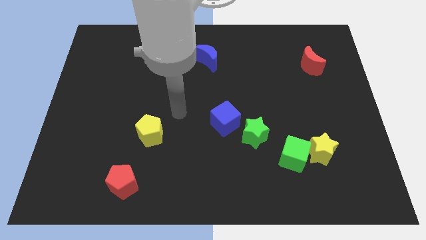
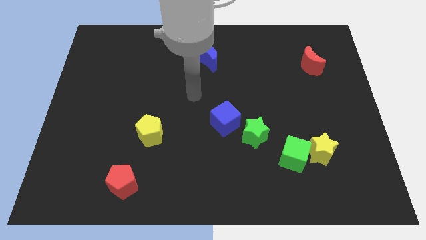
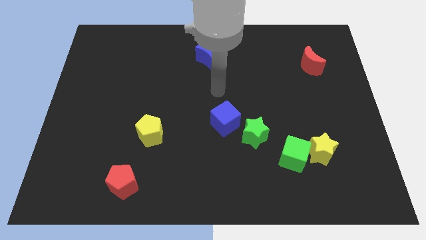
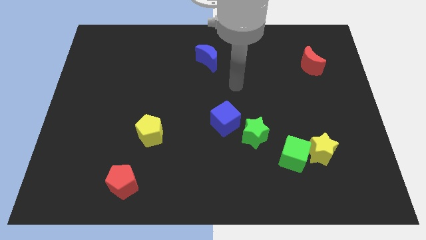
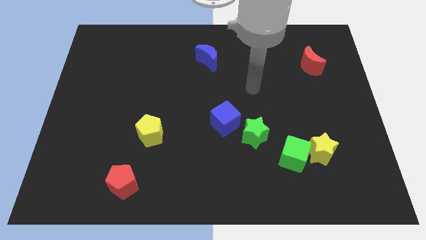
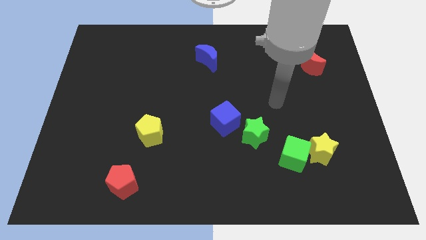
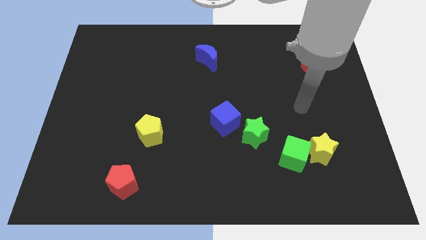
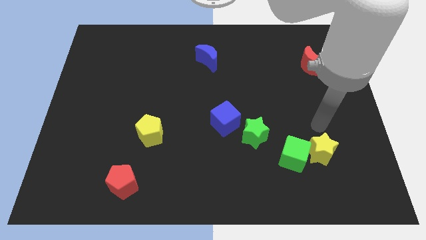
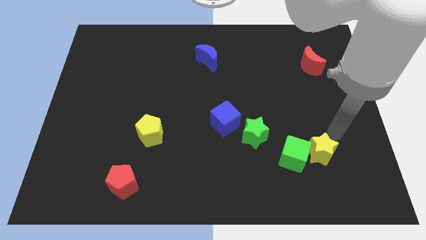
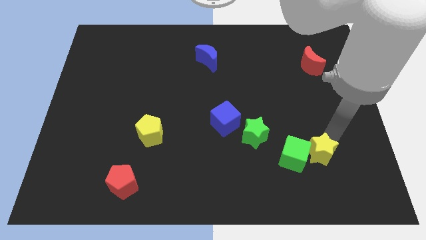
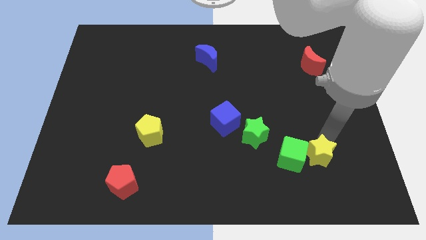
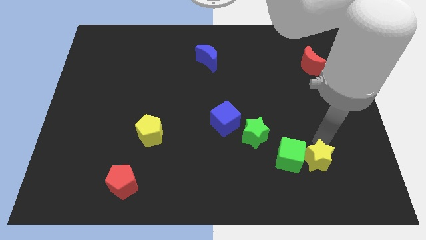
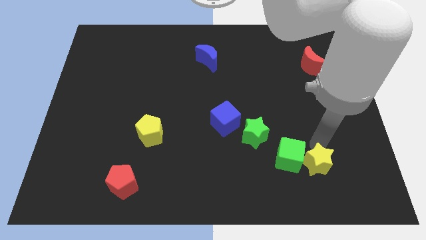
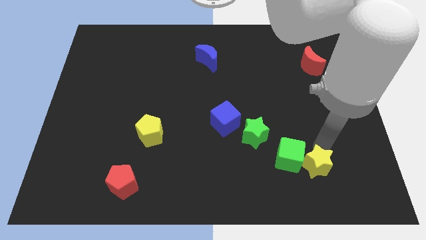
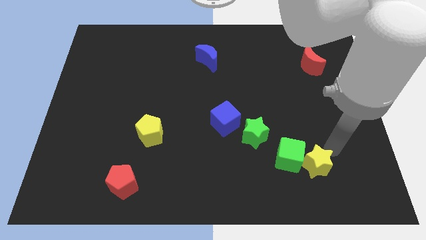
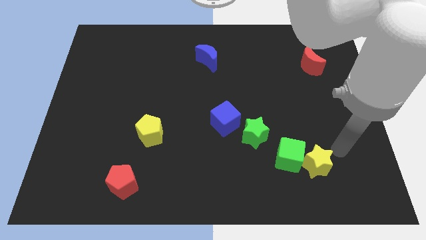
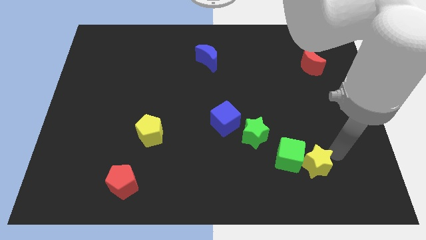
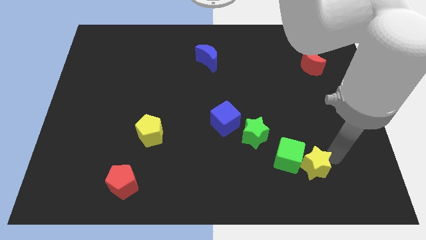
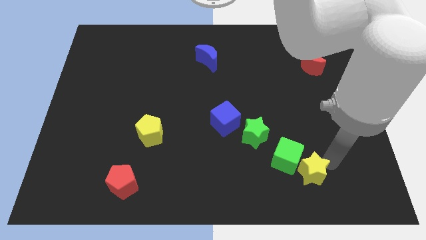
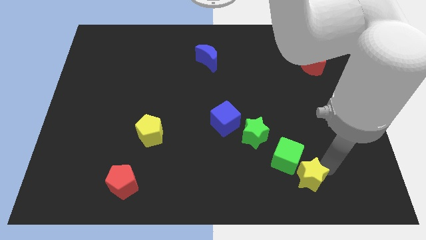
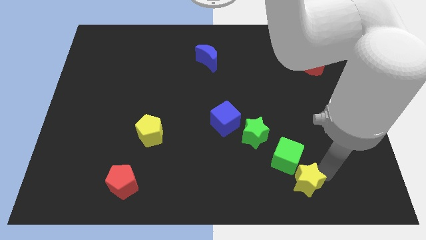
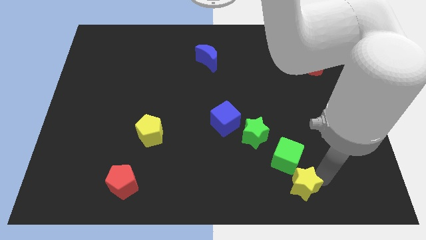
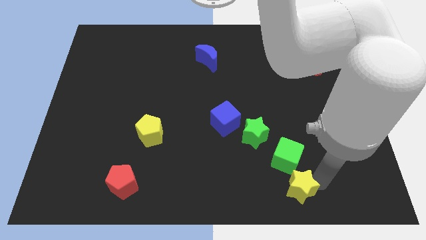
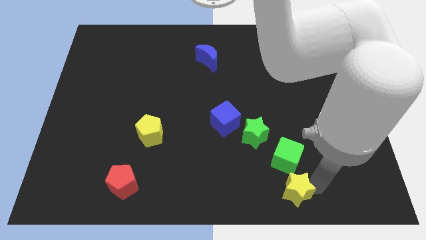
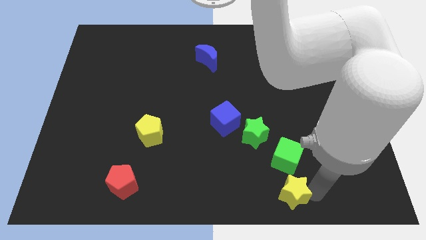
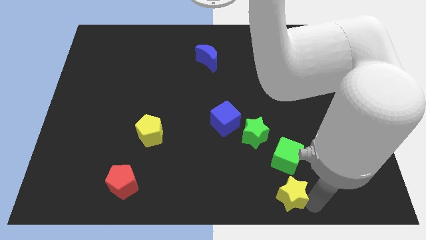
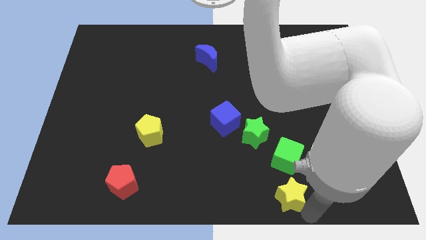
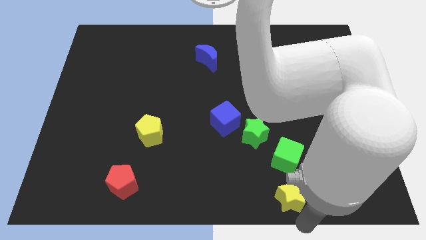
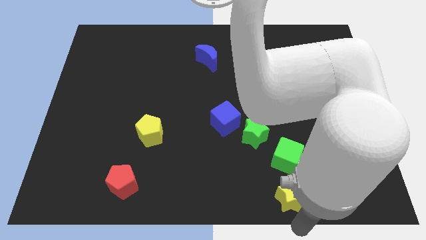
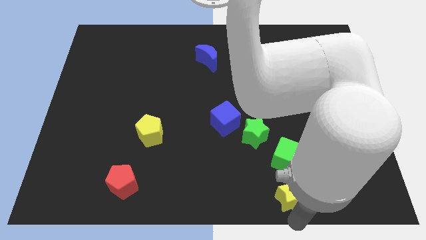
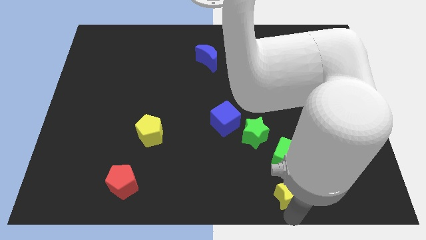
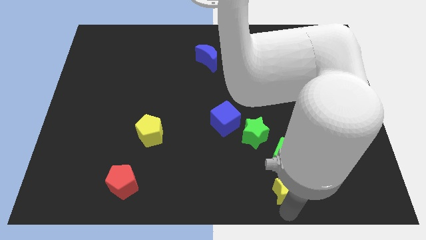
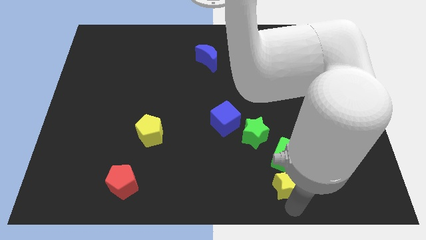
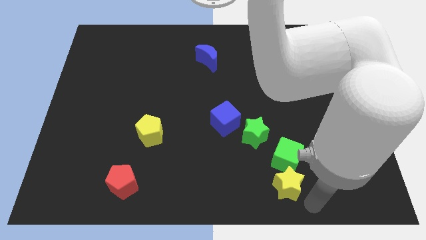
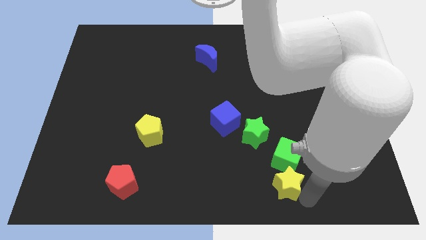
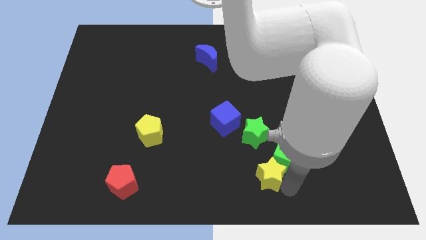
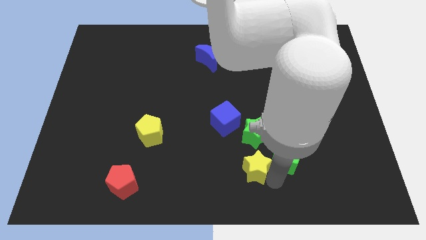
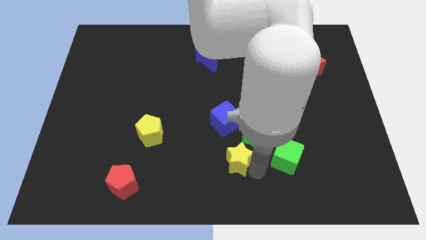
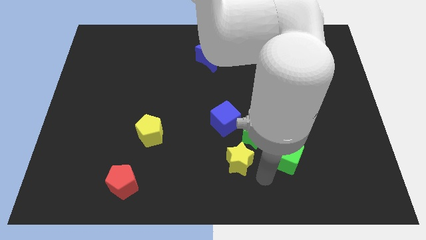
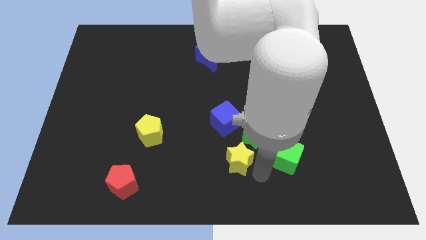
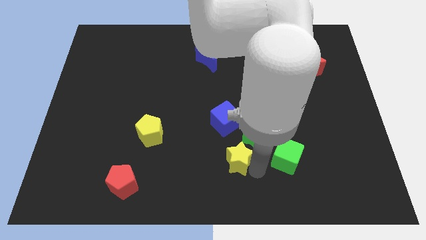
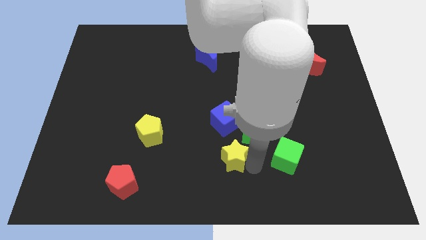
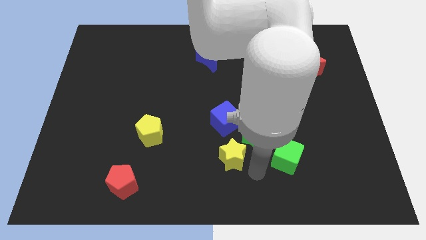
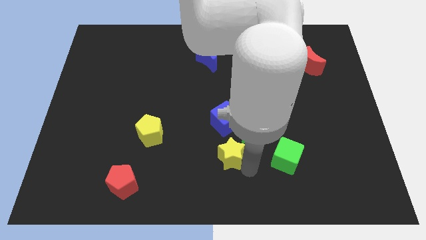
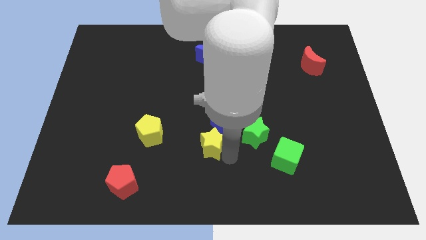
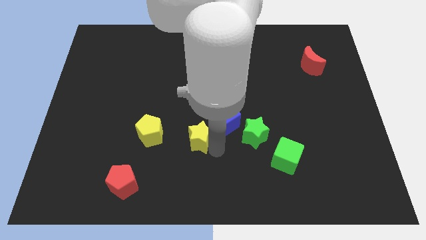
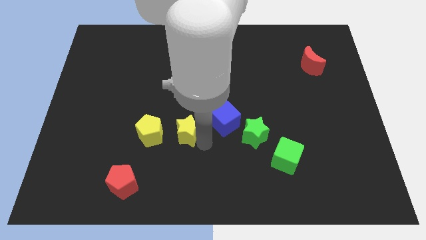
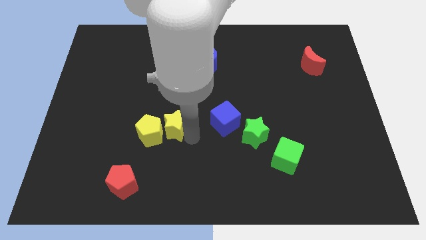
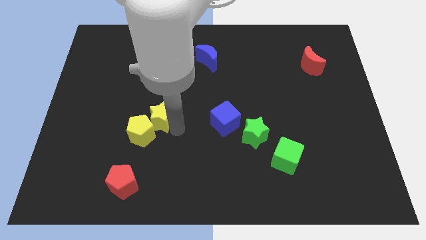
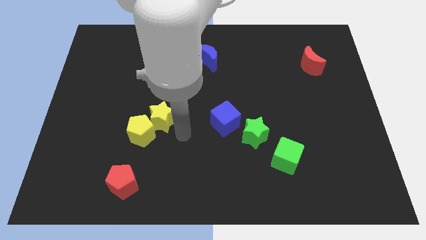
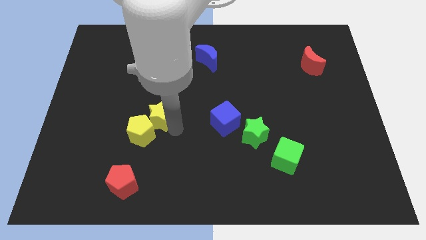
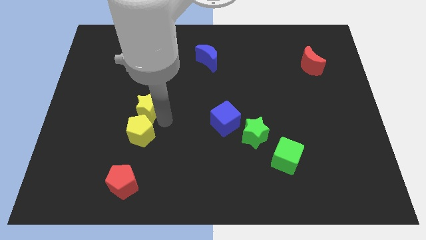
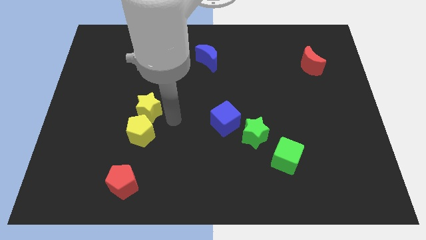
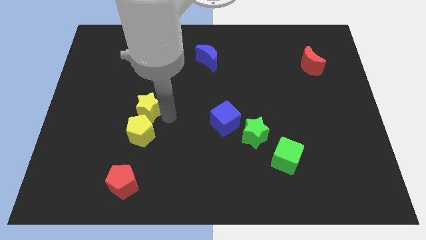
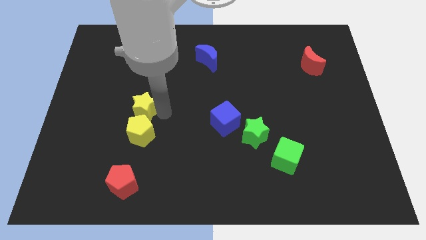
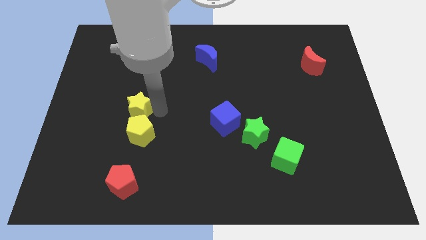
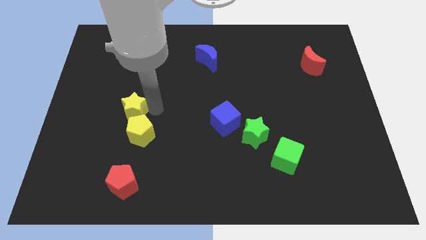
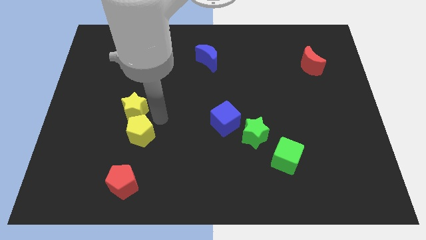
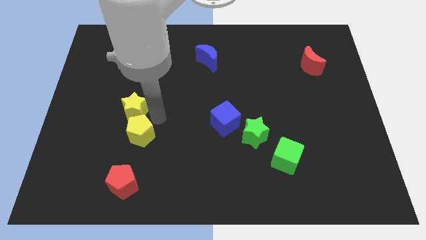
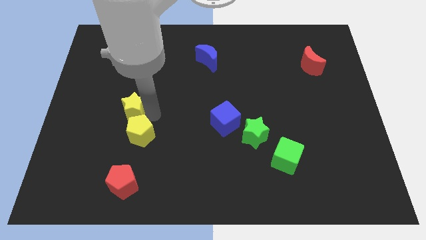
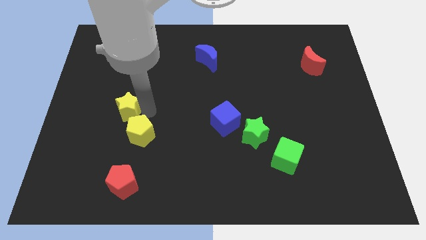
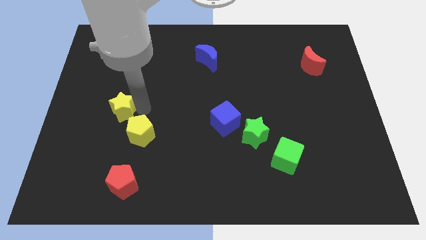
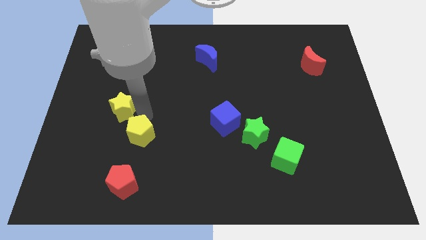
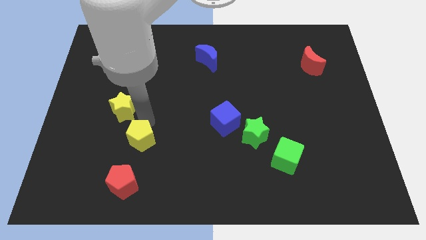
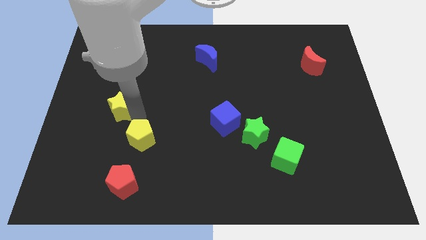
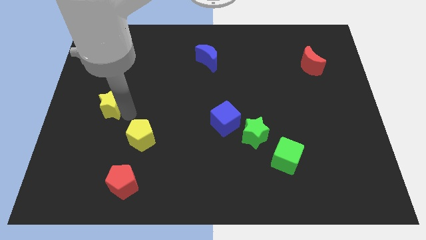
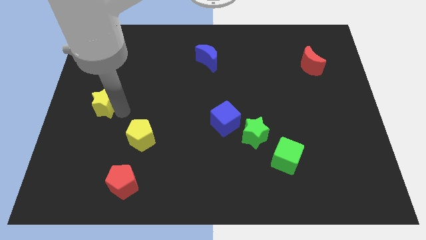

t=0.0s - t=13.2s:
put the yellow star to the left side
